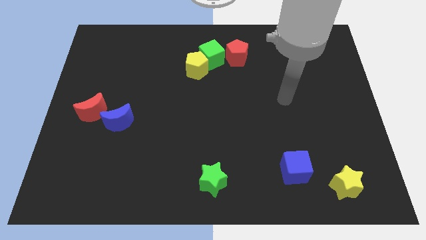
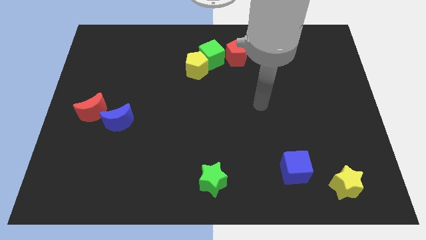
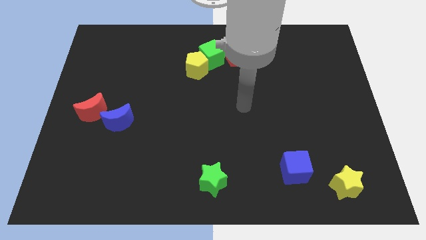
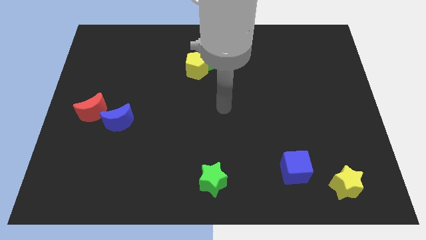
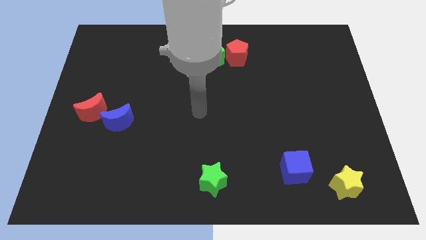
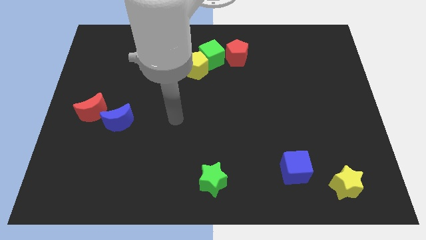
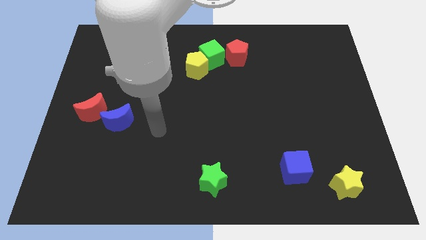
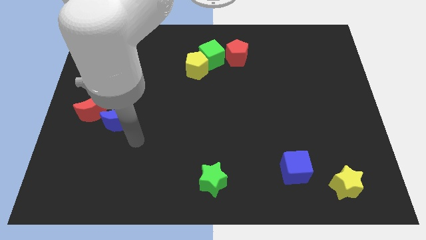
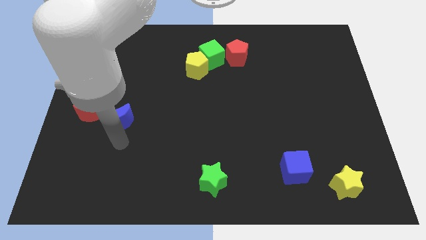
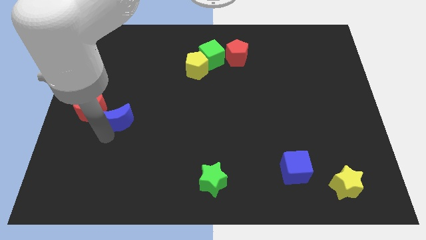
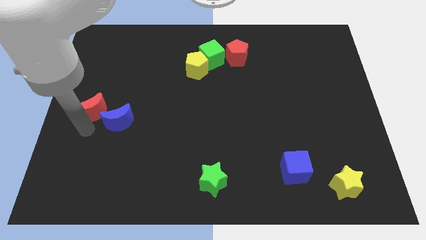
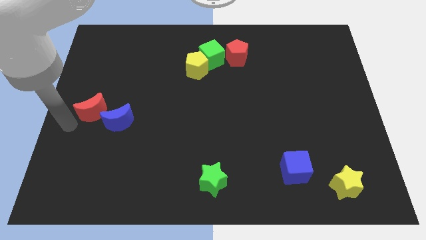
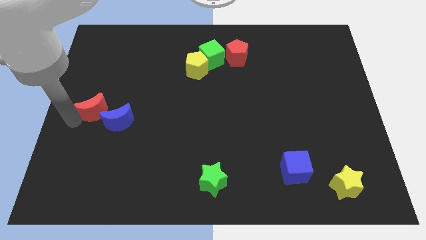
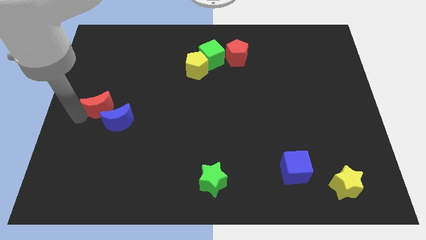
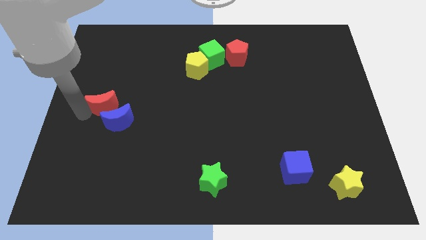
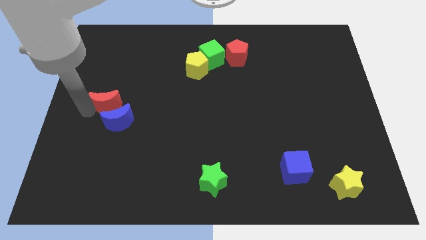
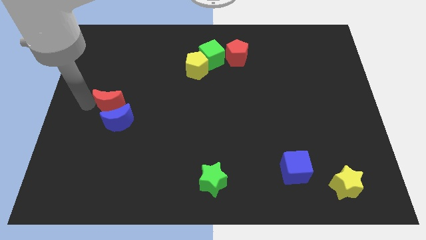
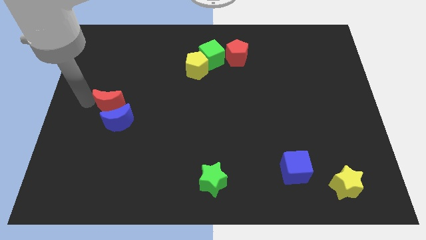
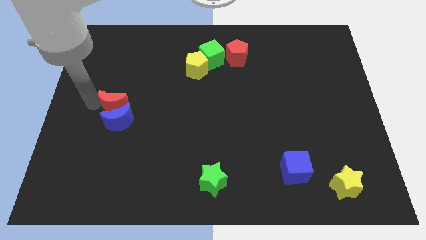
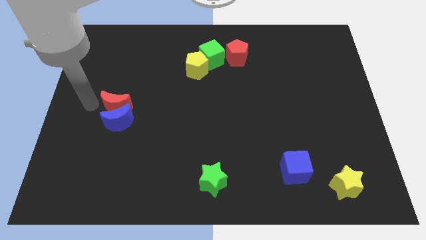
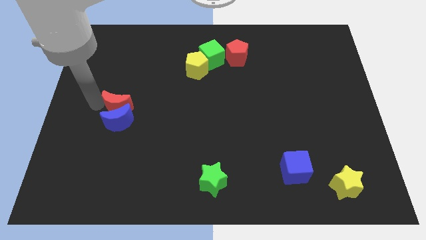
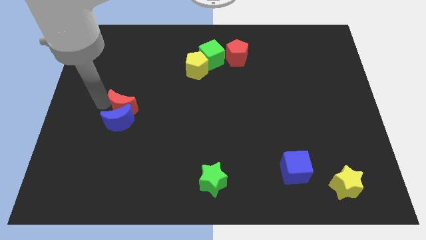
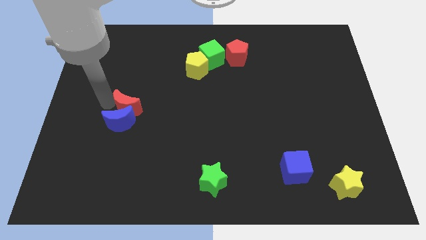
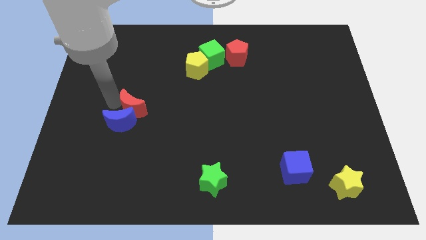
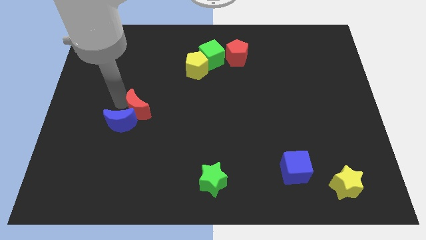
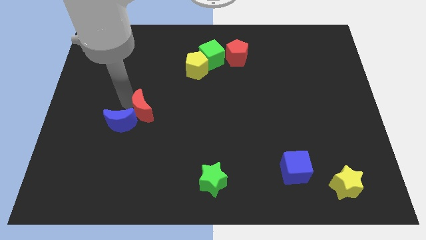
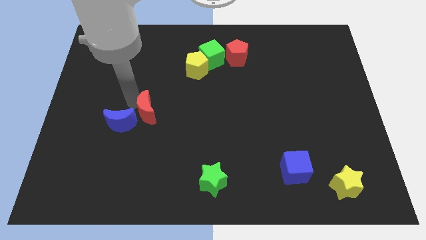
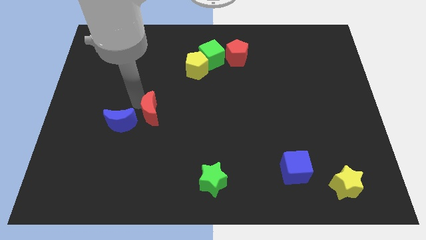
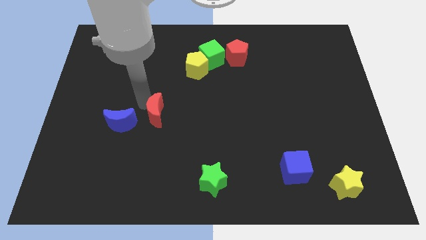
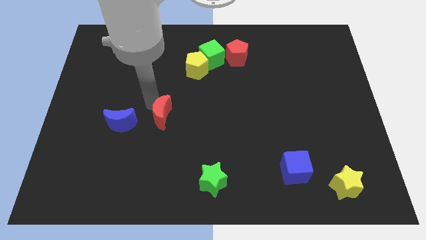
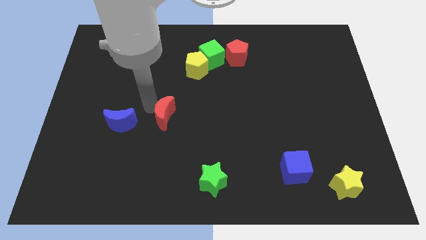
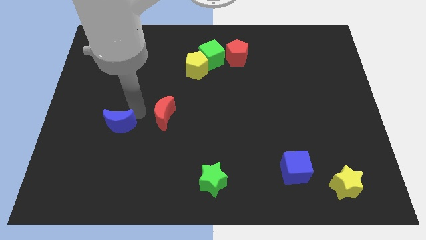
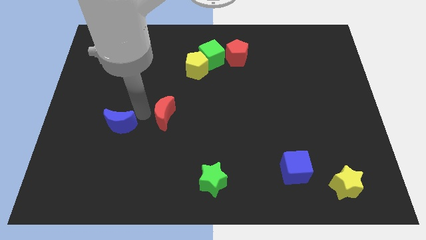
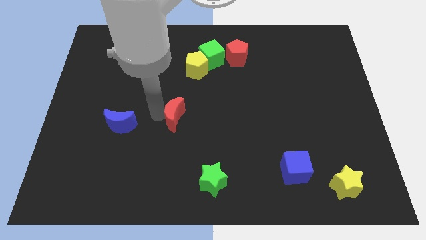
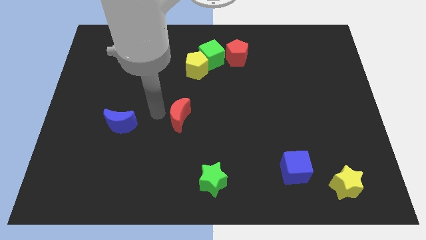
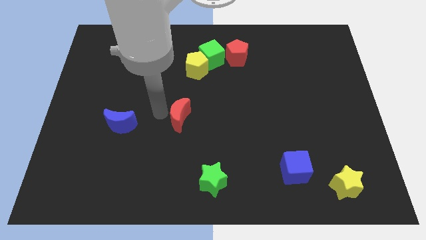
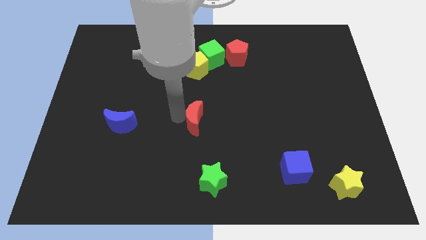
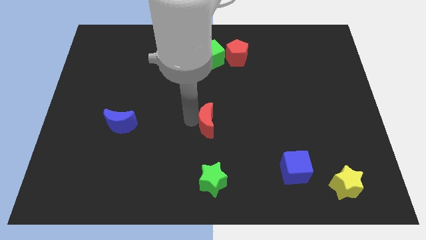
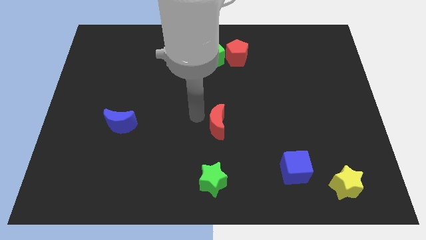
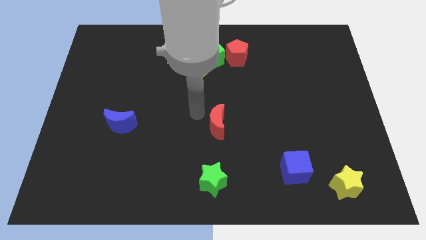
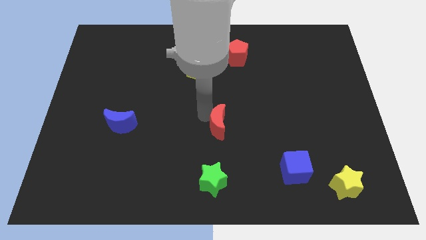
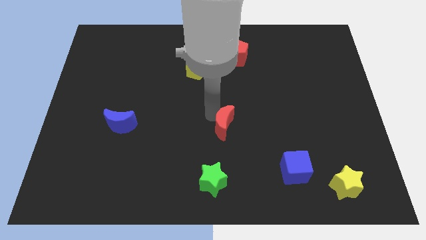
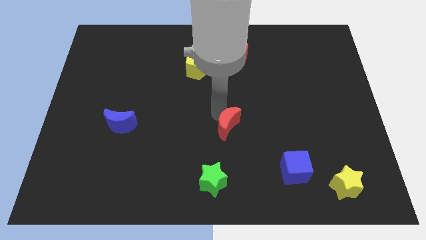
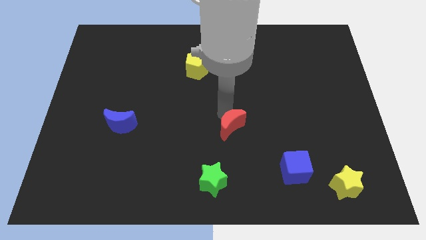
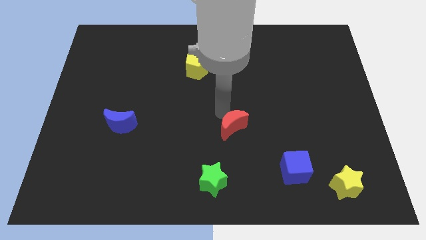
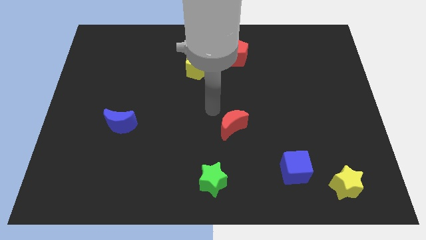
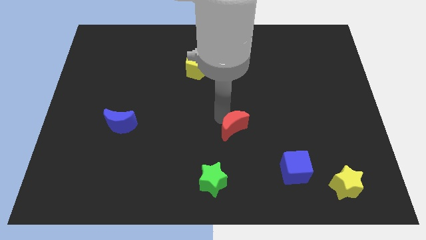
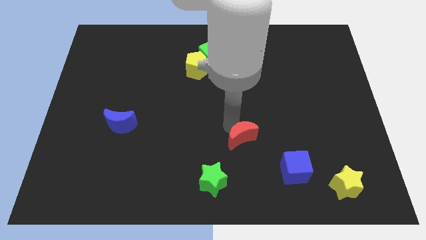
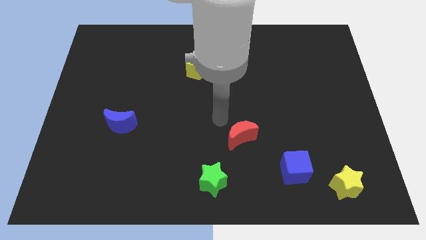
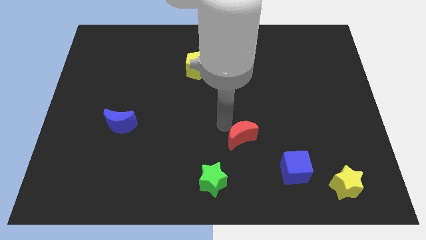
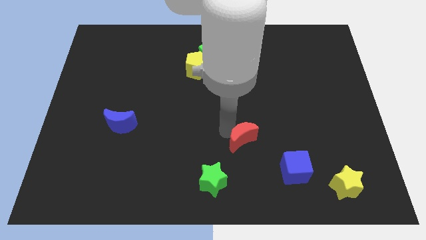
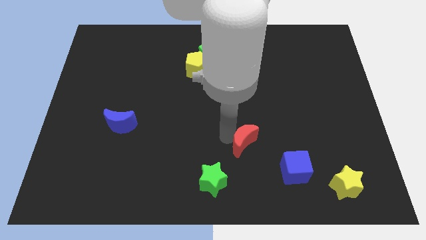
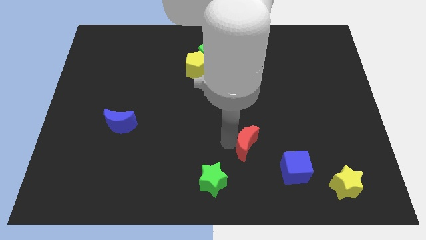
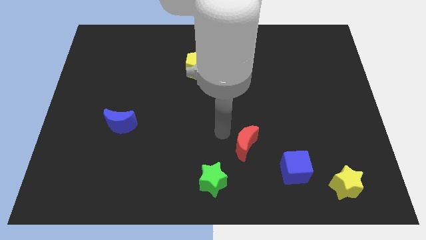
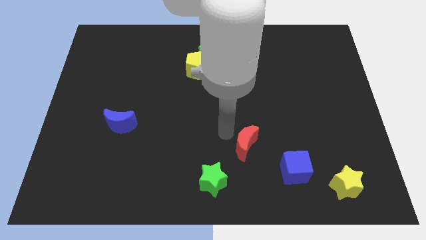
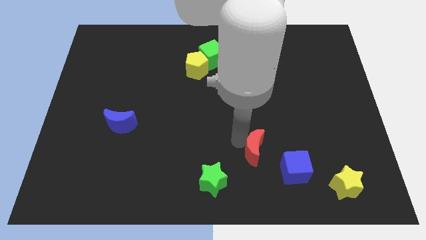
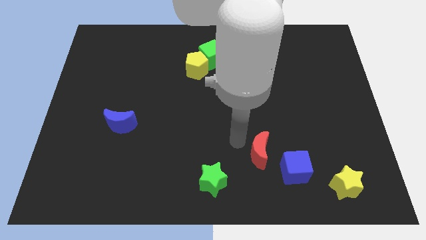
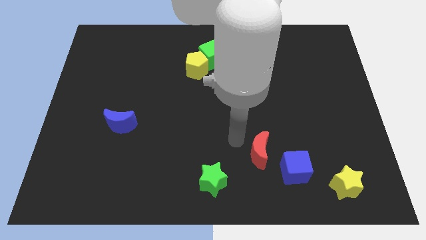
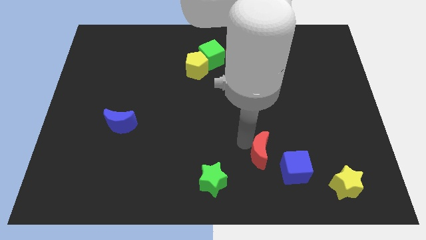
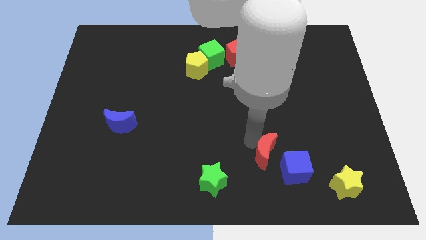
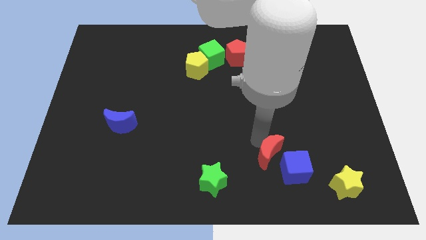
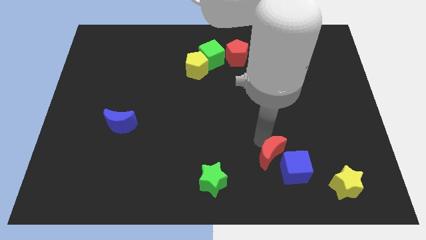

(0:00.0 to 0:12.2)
slide the red moon towards the blue cube

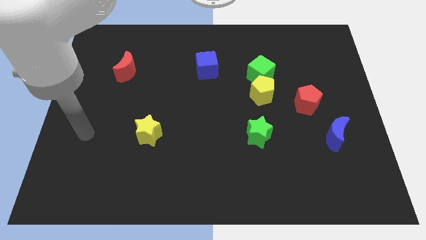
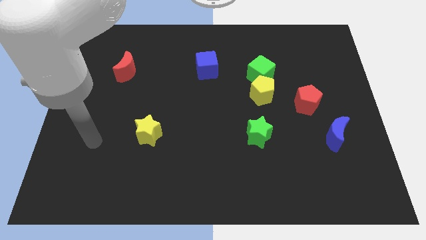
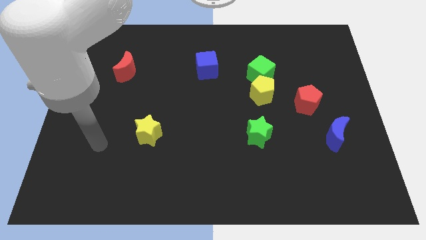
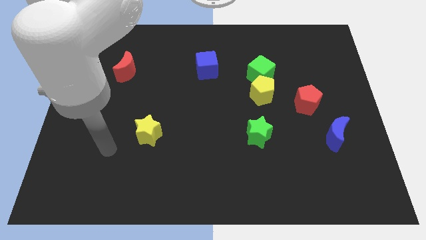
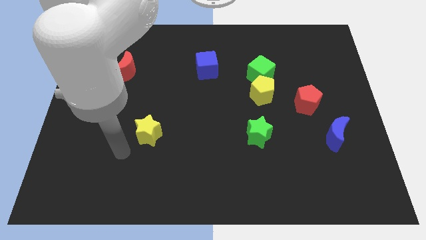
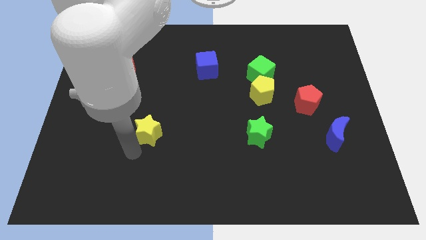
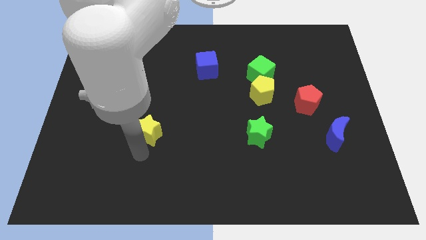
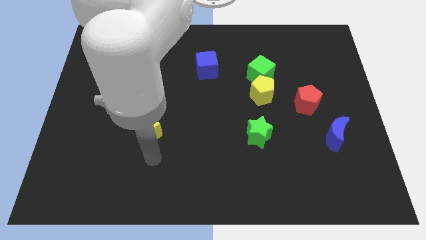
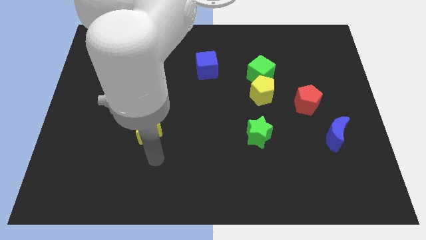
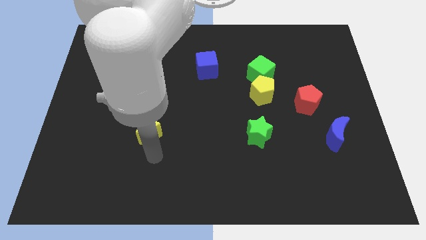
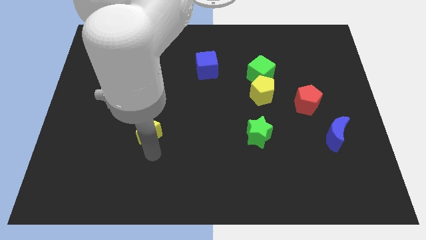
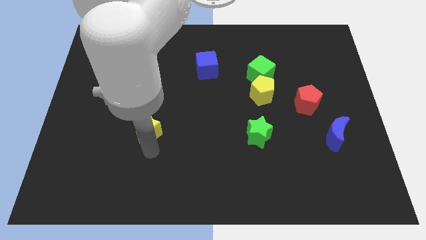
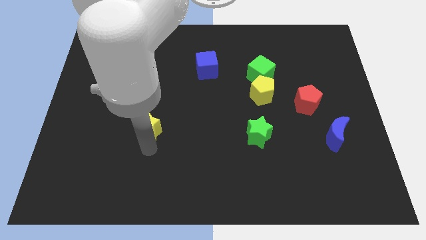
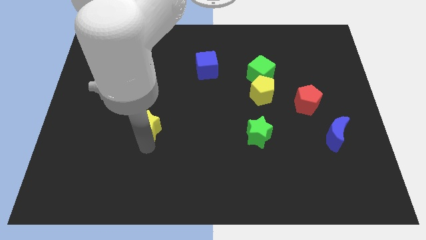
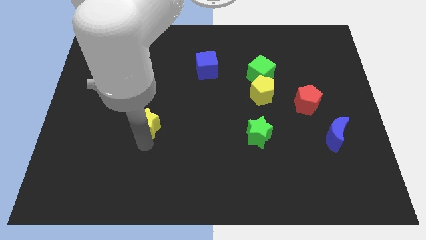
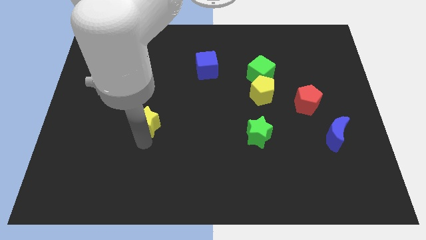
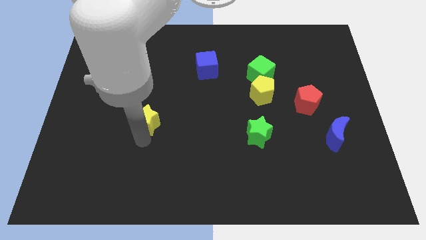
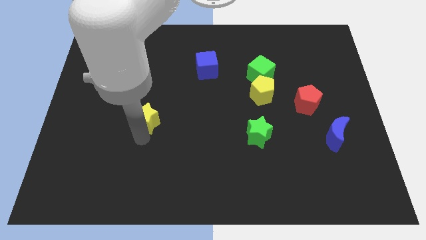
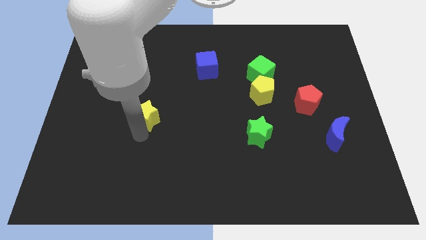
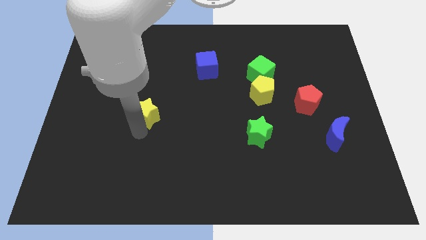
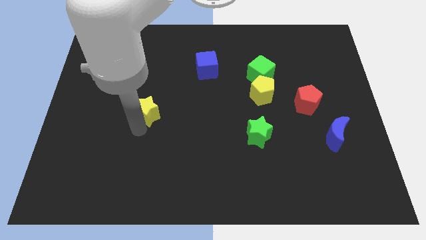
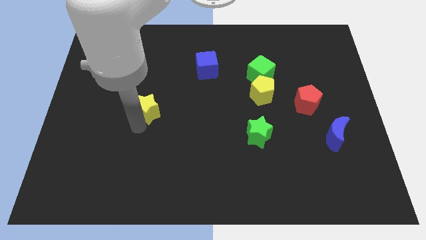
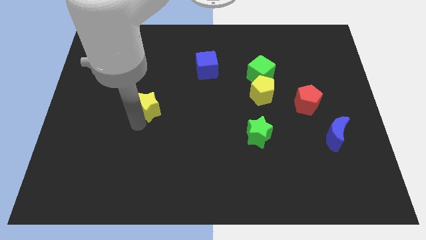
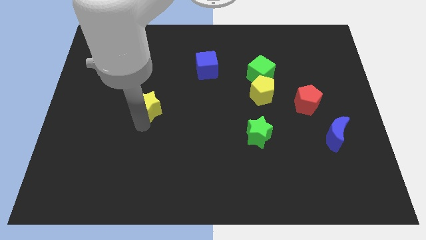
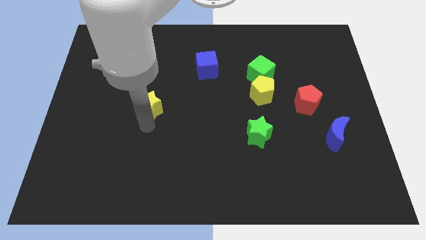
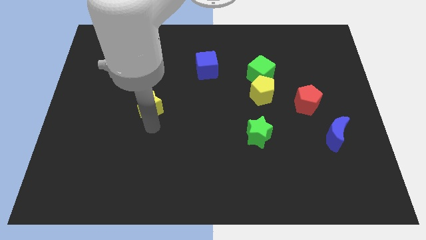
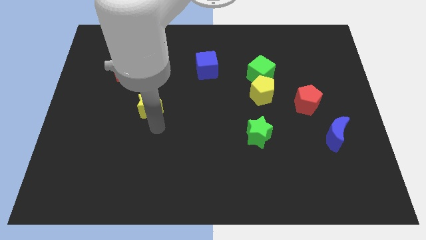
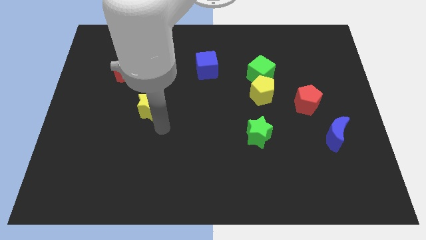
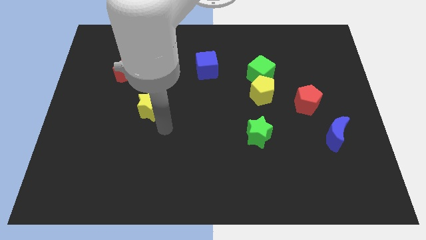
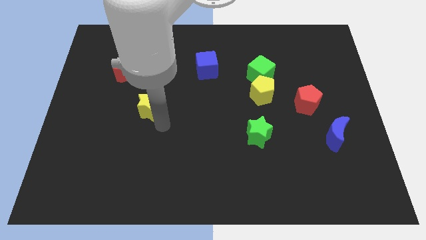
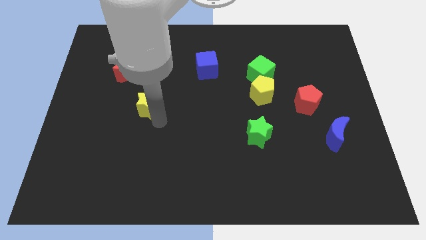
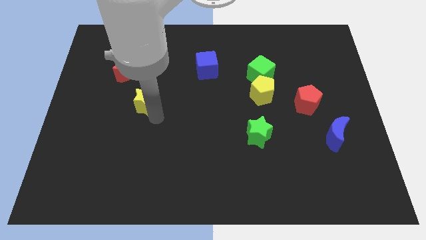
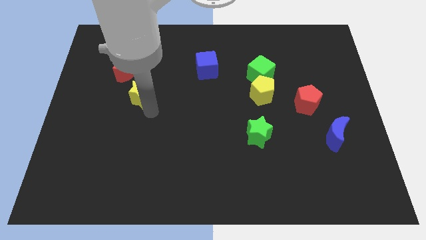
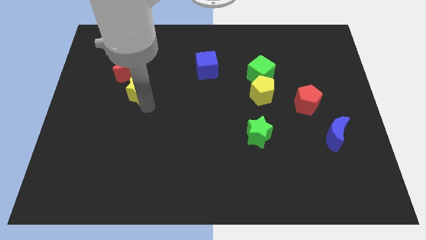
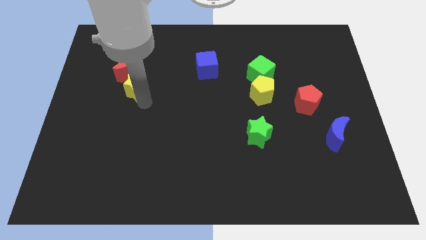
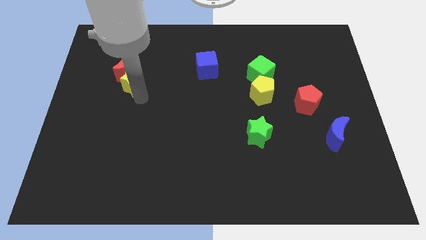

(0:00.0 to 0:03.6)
slide the yellow star close to the red moon
